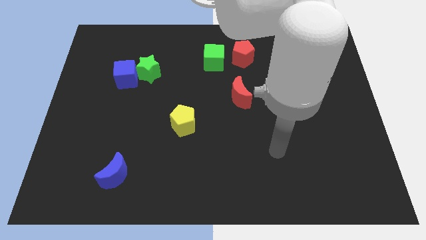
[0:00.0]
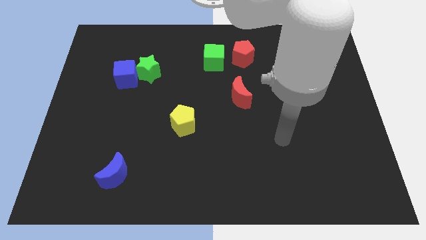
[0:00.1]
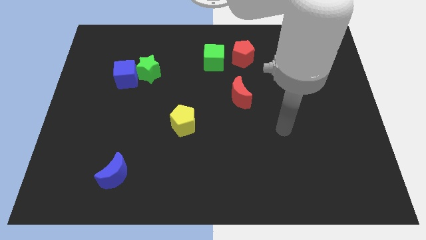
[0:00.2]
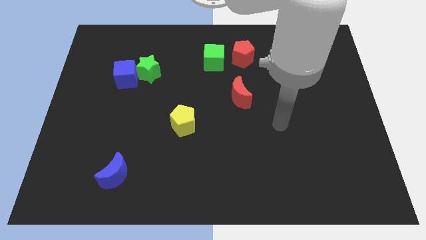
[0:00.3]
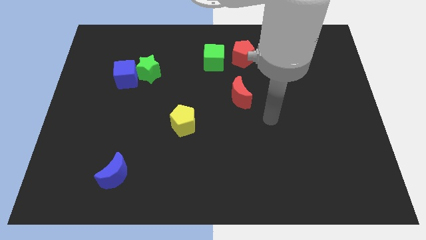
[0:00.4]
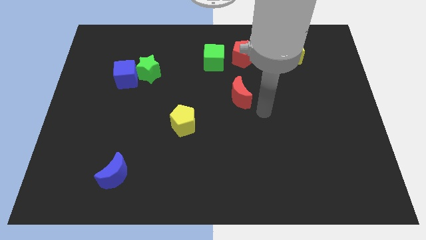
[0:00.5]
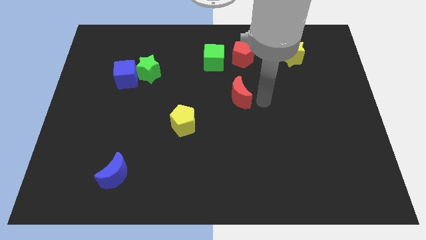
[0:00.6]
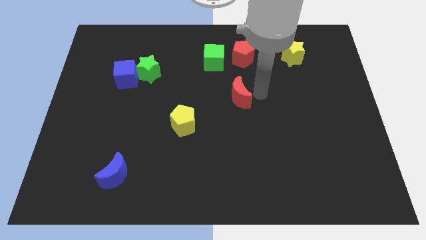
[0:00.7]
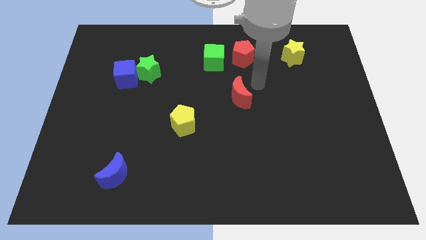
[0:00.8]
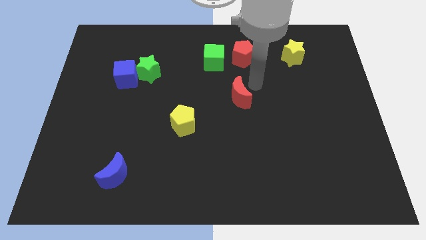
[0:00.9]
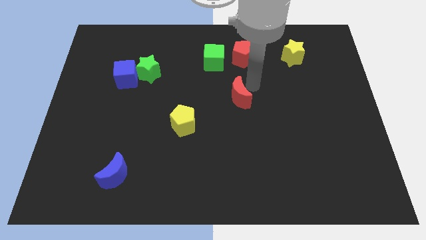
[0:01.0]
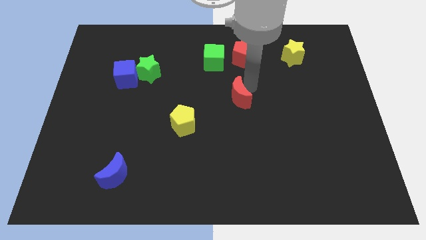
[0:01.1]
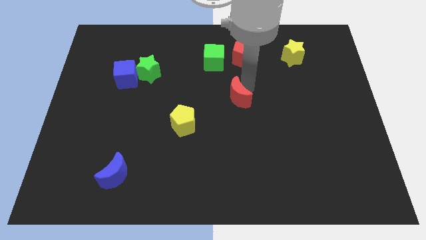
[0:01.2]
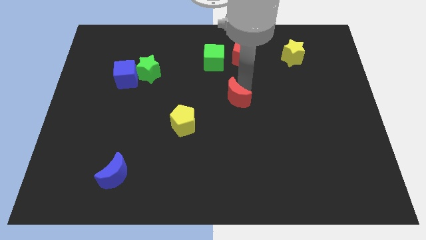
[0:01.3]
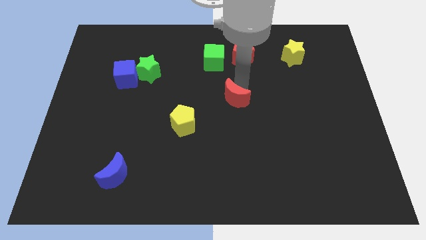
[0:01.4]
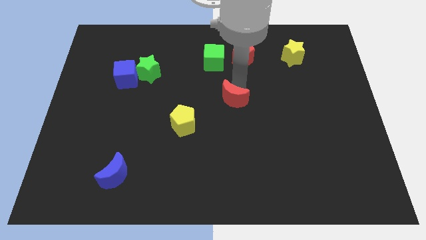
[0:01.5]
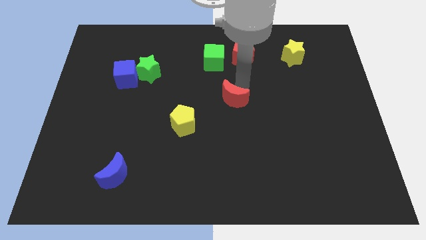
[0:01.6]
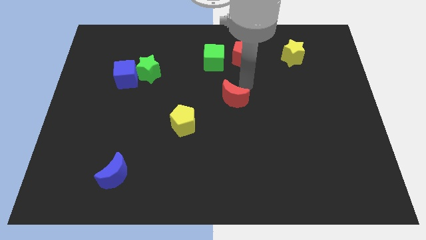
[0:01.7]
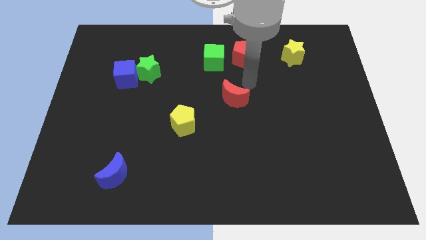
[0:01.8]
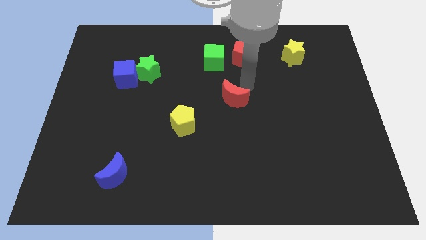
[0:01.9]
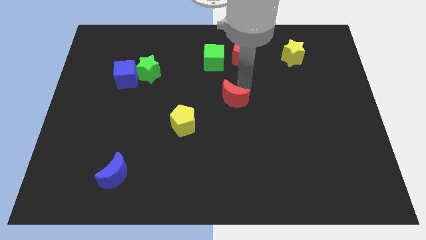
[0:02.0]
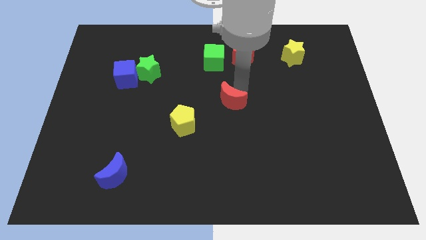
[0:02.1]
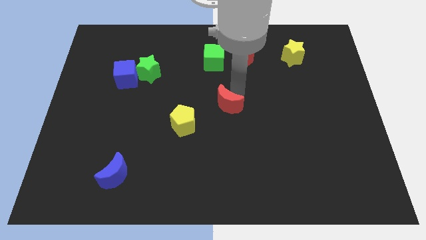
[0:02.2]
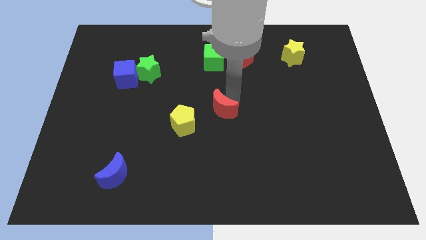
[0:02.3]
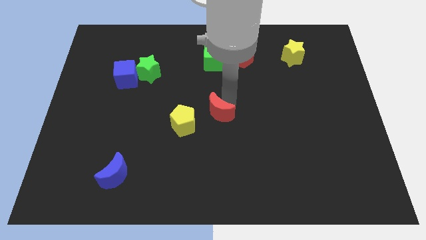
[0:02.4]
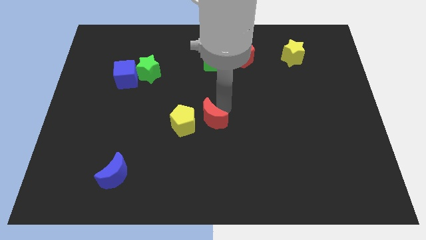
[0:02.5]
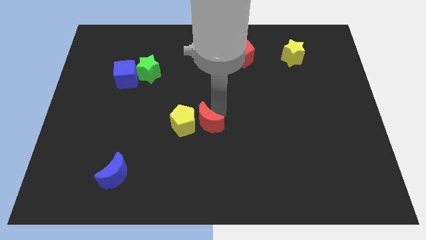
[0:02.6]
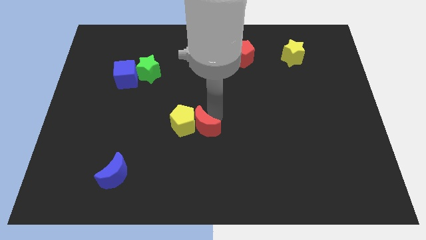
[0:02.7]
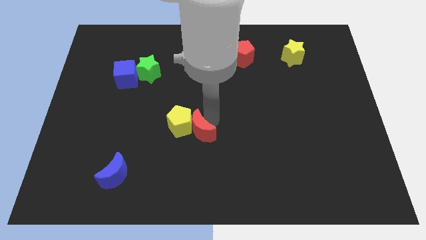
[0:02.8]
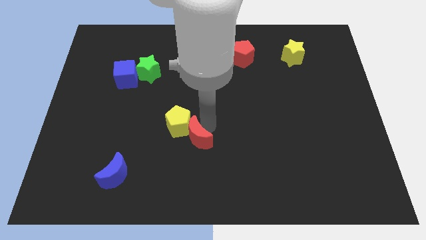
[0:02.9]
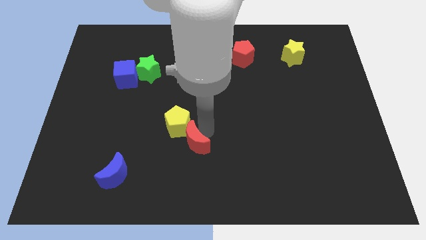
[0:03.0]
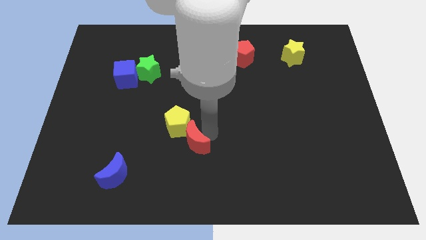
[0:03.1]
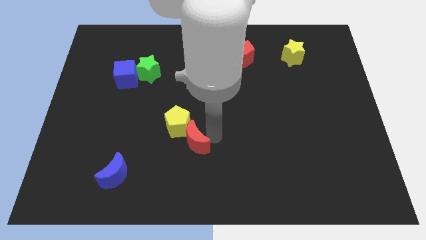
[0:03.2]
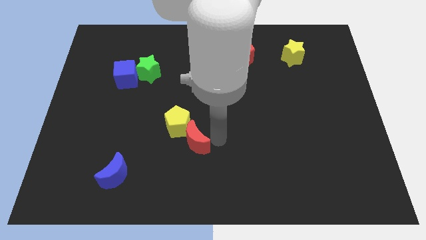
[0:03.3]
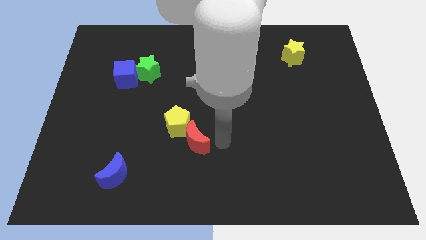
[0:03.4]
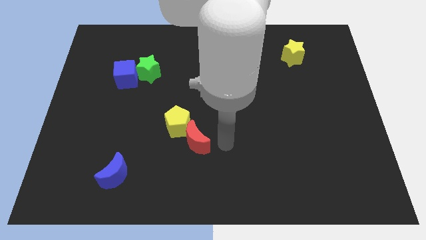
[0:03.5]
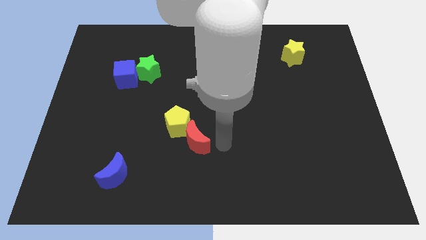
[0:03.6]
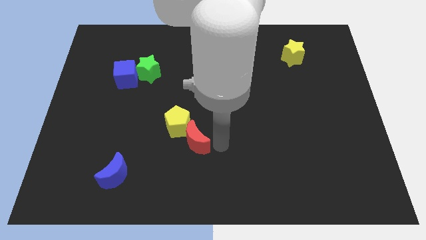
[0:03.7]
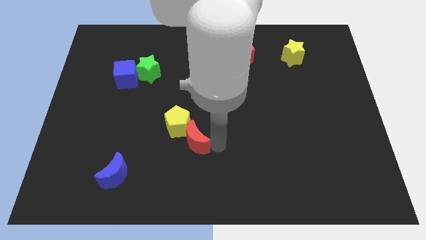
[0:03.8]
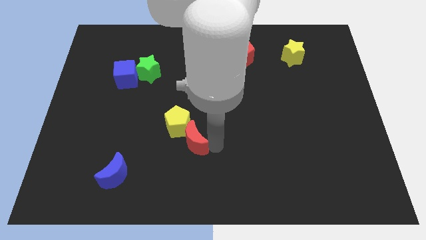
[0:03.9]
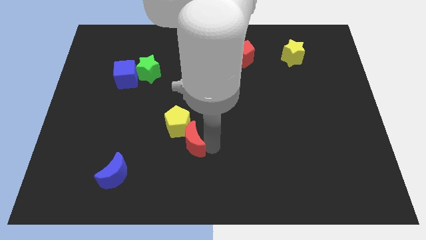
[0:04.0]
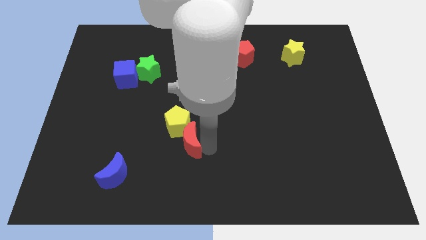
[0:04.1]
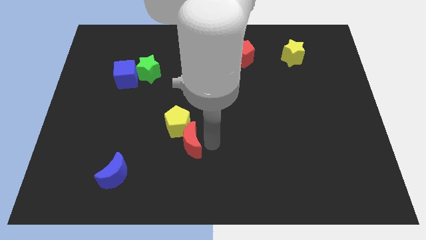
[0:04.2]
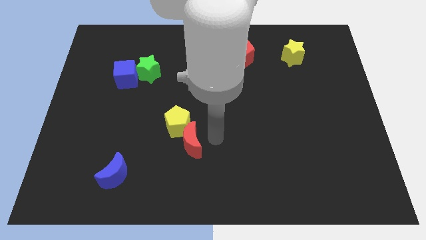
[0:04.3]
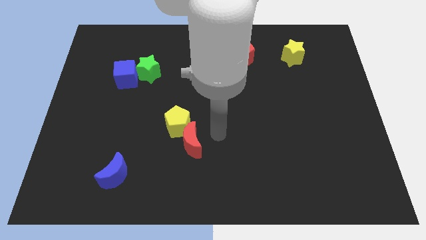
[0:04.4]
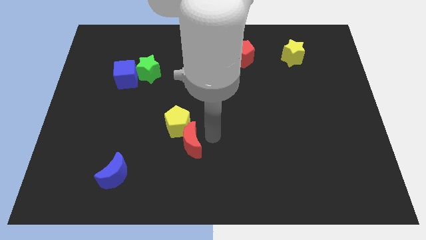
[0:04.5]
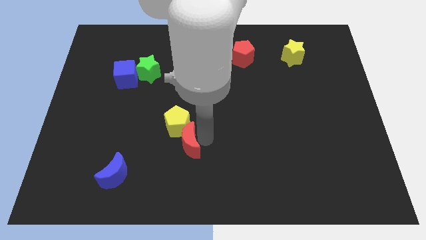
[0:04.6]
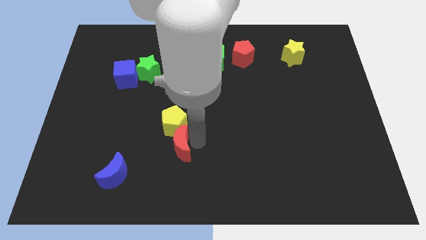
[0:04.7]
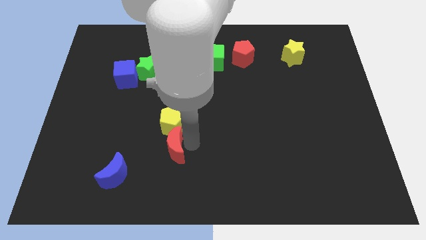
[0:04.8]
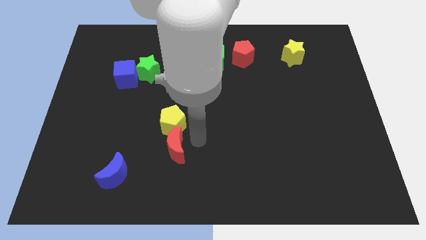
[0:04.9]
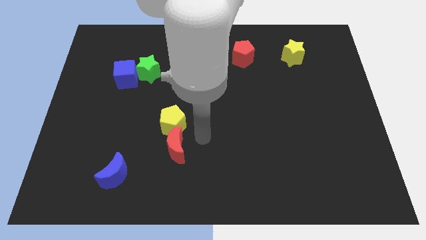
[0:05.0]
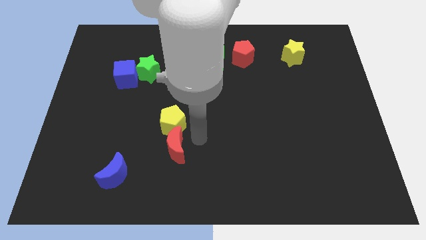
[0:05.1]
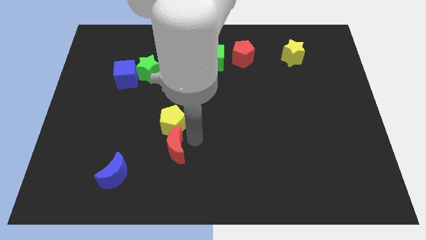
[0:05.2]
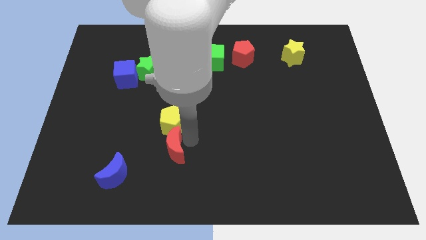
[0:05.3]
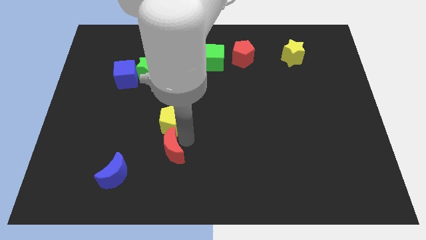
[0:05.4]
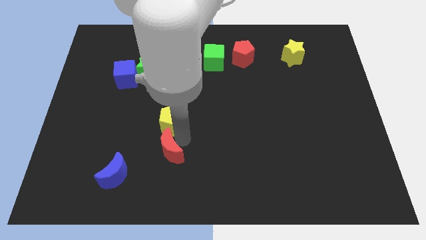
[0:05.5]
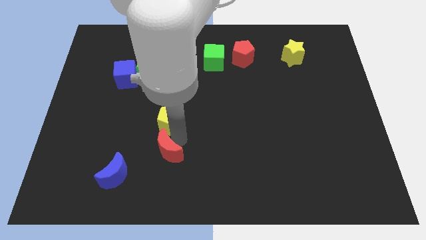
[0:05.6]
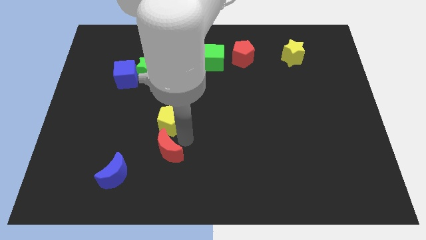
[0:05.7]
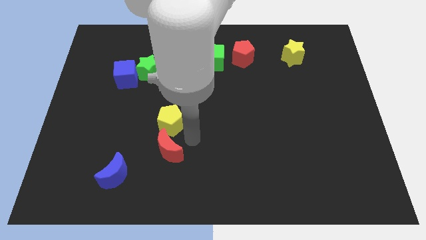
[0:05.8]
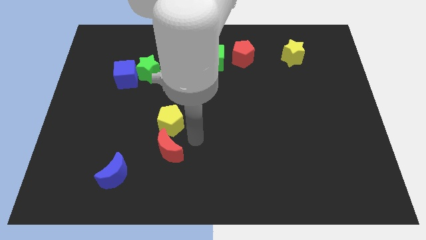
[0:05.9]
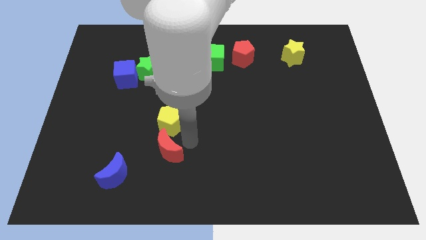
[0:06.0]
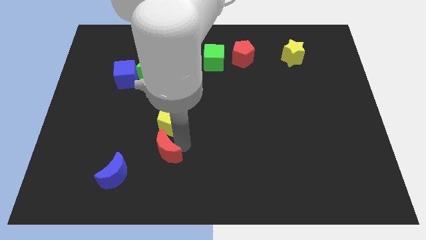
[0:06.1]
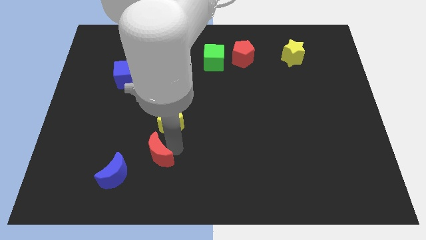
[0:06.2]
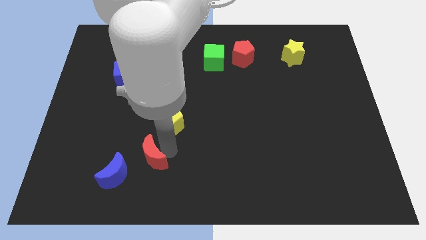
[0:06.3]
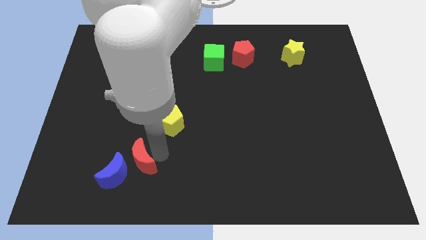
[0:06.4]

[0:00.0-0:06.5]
put the red moon towards the blue moon

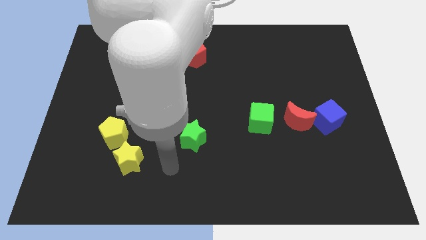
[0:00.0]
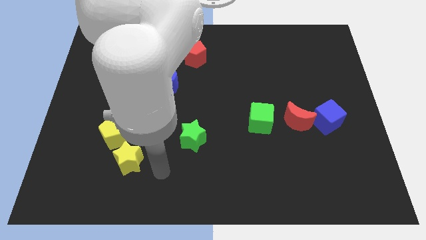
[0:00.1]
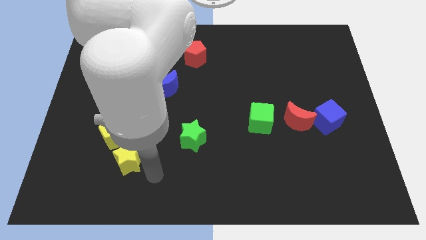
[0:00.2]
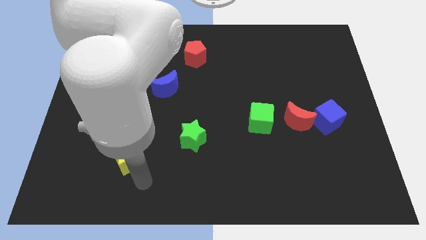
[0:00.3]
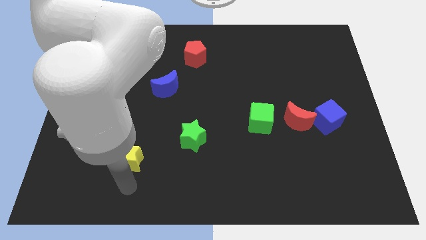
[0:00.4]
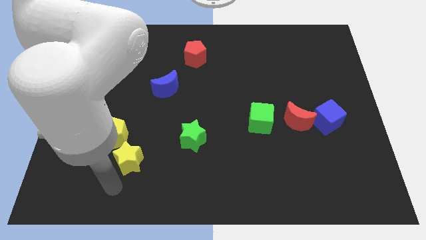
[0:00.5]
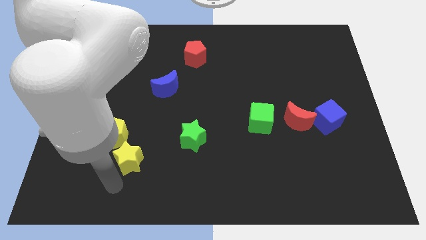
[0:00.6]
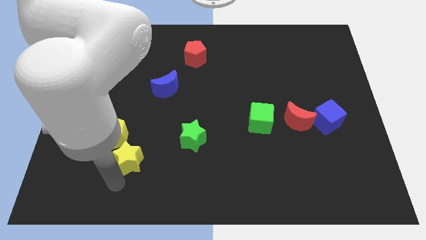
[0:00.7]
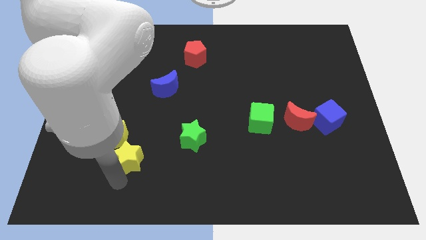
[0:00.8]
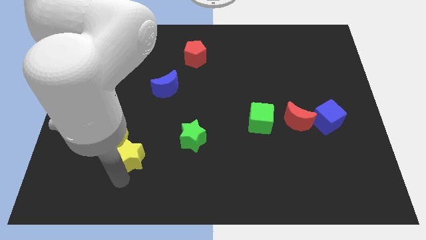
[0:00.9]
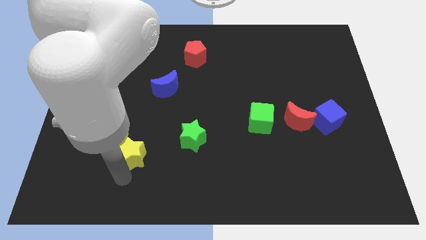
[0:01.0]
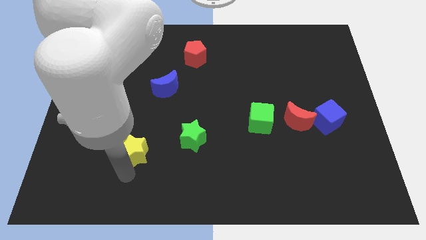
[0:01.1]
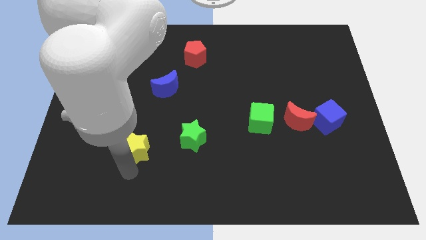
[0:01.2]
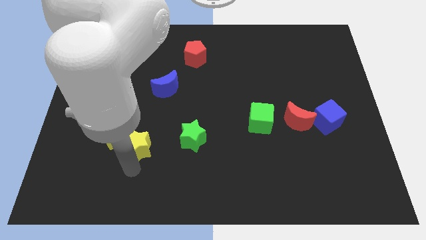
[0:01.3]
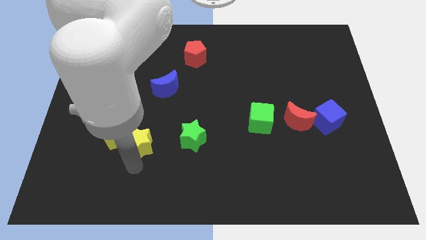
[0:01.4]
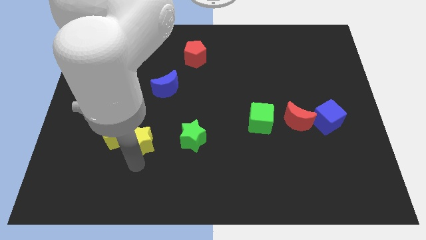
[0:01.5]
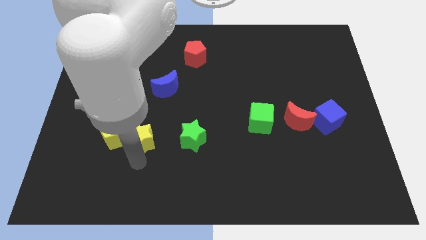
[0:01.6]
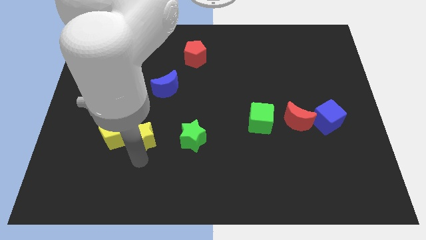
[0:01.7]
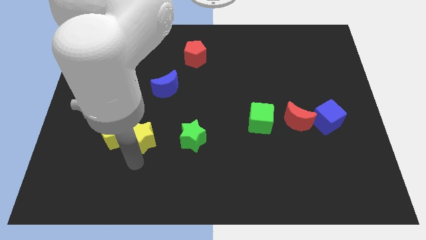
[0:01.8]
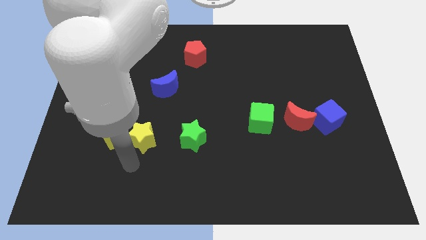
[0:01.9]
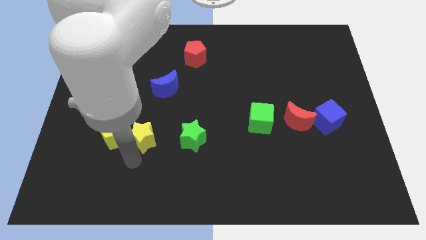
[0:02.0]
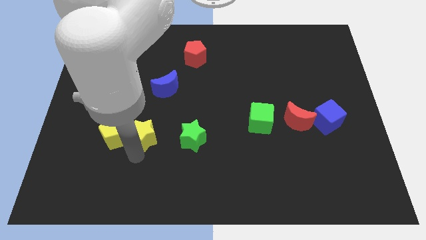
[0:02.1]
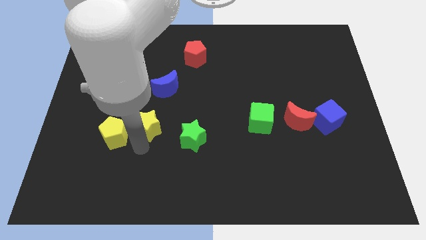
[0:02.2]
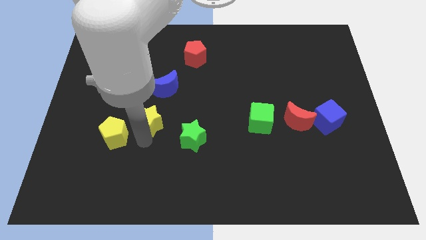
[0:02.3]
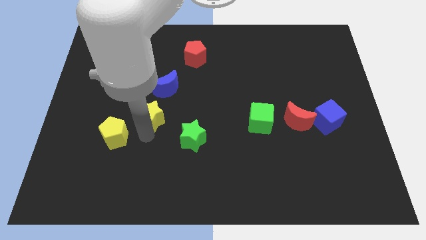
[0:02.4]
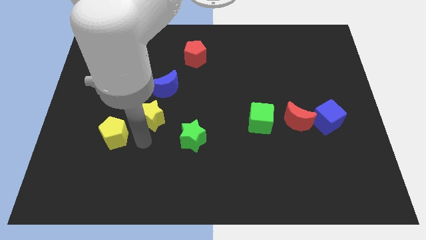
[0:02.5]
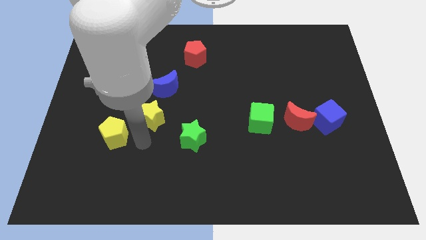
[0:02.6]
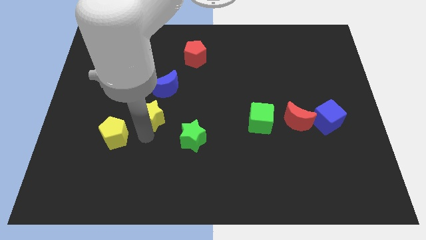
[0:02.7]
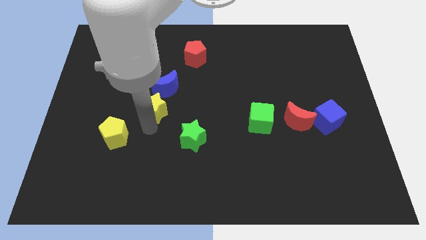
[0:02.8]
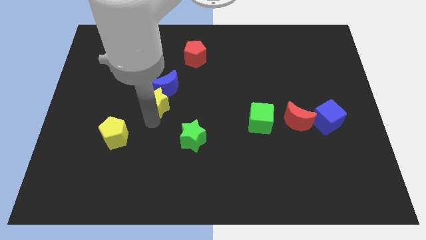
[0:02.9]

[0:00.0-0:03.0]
push the yellow star next to the blue moon
